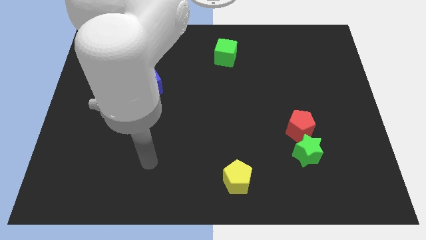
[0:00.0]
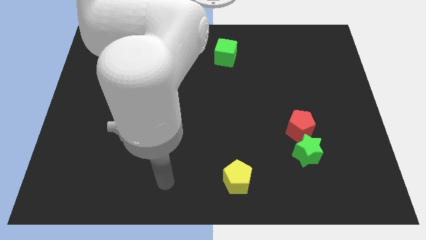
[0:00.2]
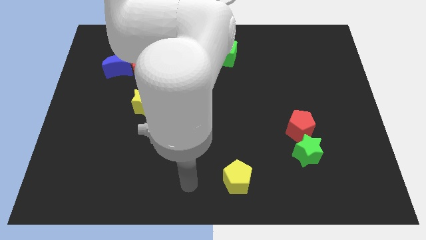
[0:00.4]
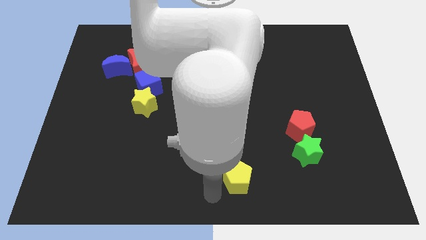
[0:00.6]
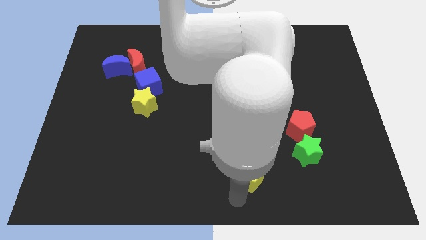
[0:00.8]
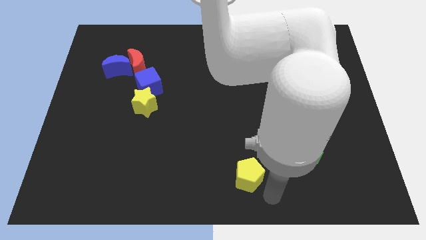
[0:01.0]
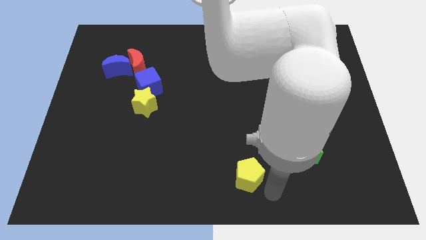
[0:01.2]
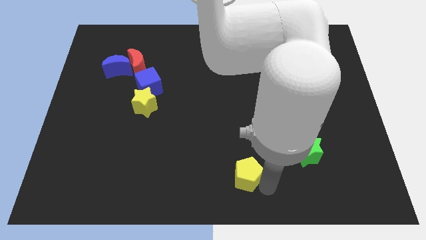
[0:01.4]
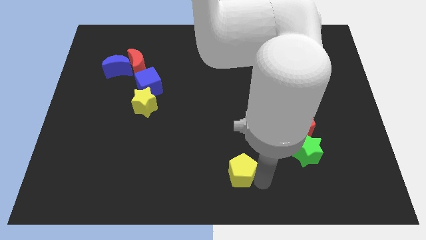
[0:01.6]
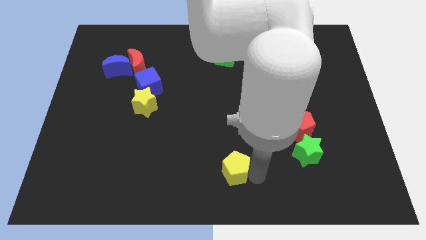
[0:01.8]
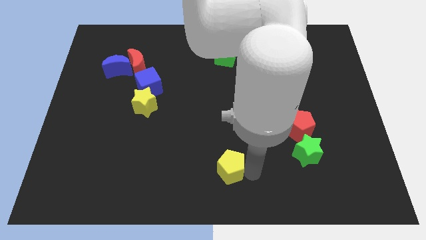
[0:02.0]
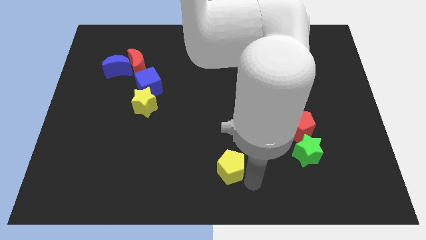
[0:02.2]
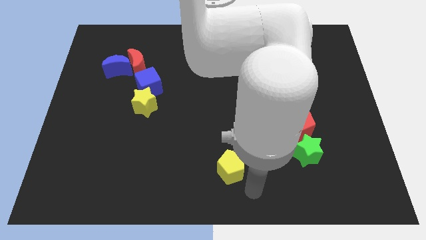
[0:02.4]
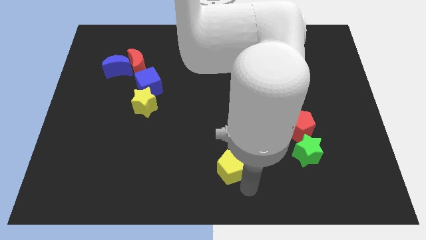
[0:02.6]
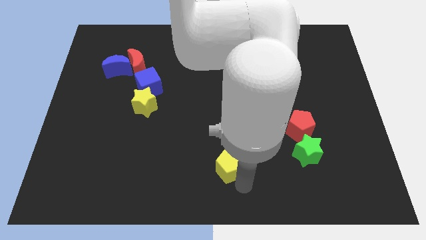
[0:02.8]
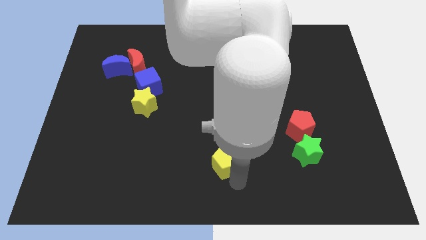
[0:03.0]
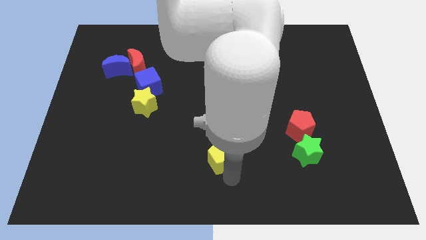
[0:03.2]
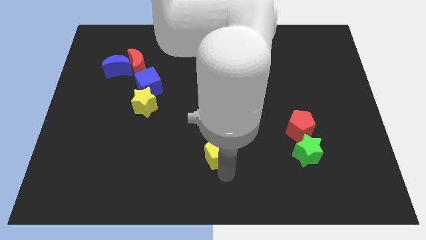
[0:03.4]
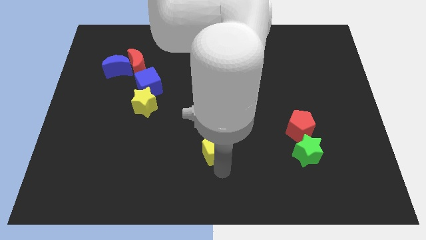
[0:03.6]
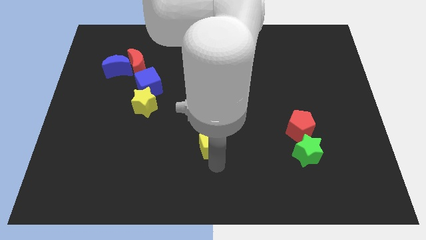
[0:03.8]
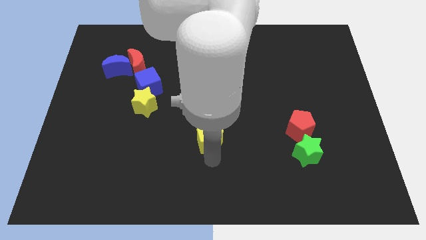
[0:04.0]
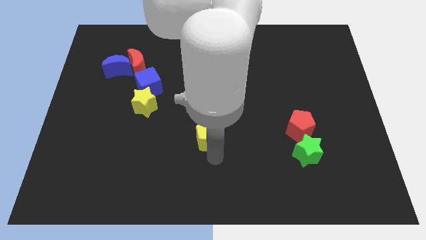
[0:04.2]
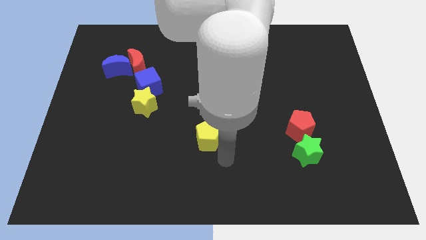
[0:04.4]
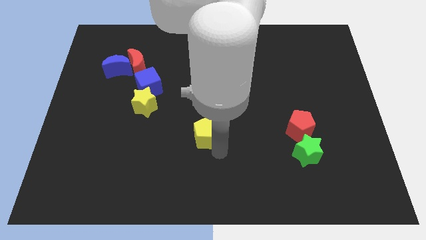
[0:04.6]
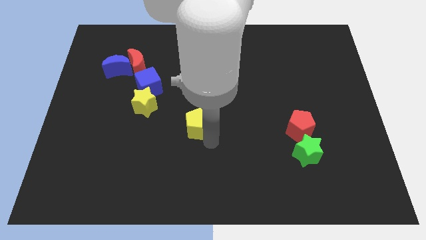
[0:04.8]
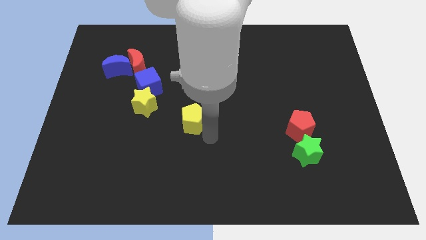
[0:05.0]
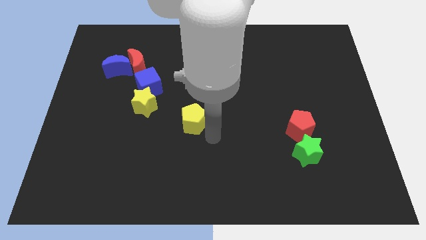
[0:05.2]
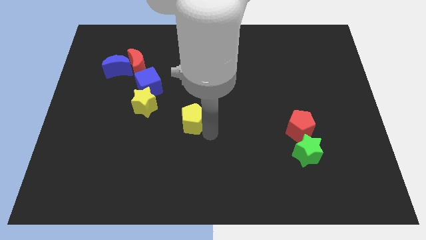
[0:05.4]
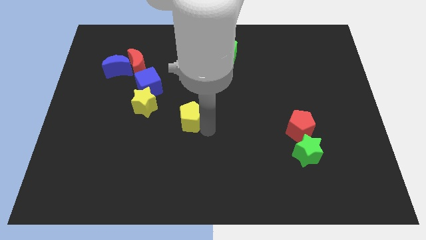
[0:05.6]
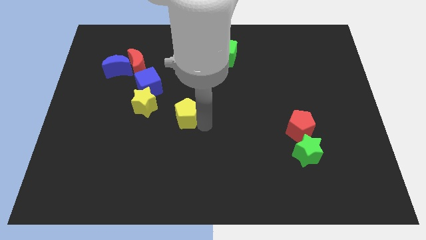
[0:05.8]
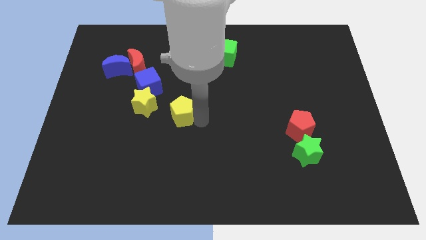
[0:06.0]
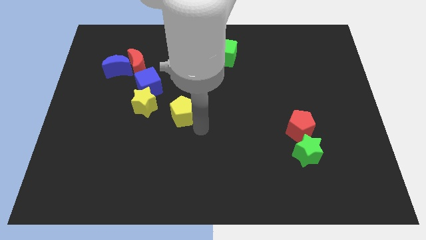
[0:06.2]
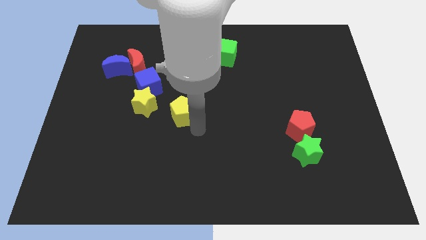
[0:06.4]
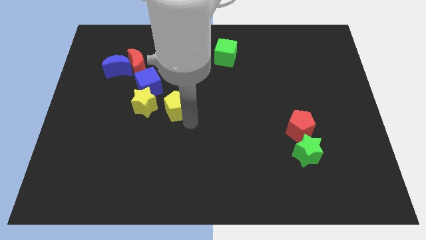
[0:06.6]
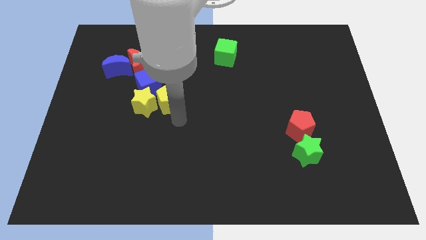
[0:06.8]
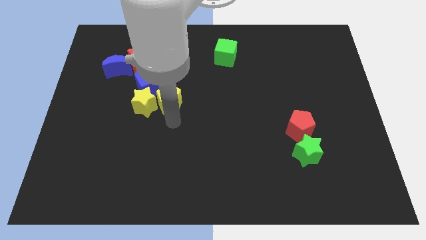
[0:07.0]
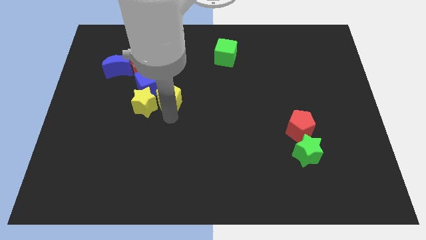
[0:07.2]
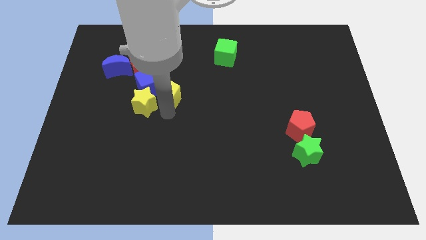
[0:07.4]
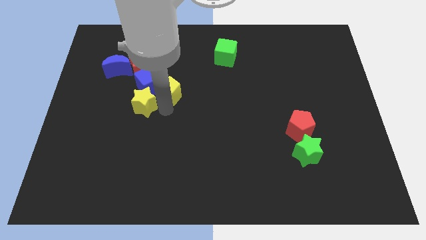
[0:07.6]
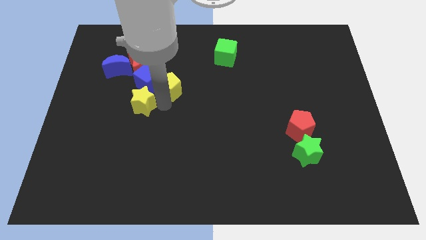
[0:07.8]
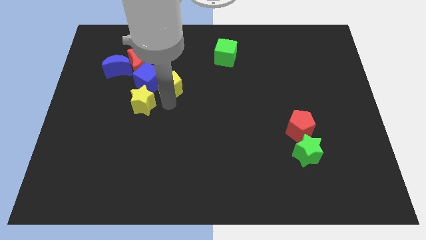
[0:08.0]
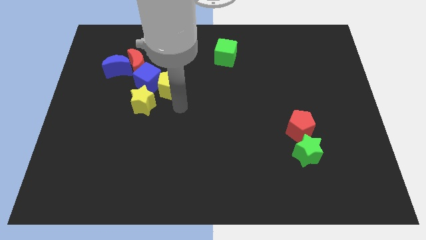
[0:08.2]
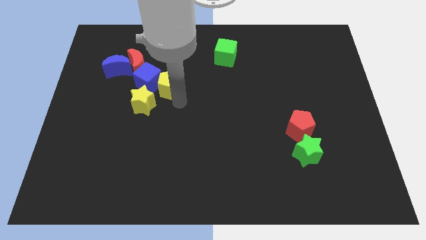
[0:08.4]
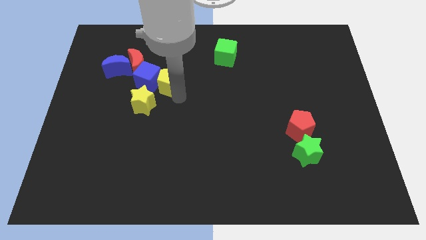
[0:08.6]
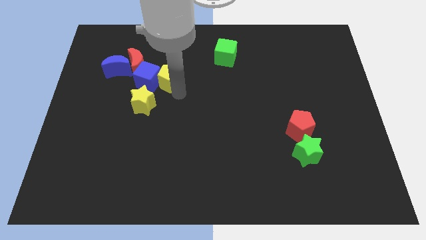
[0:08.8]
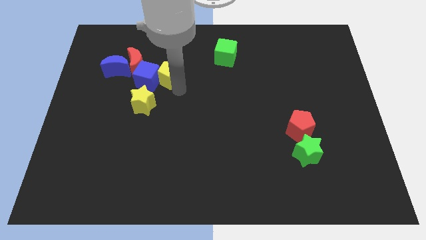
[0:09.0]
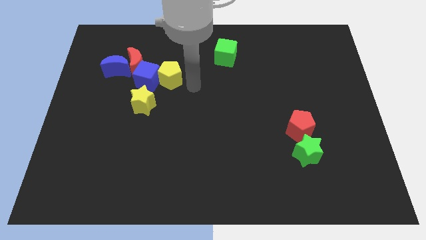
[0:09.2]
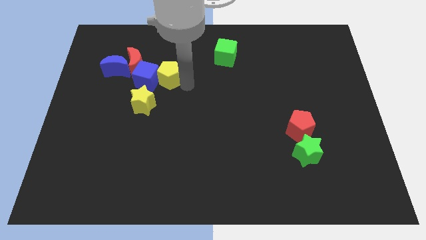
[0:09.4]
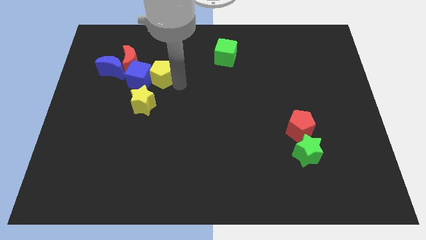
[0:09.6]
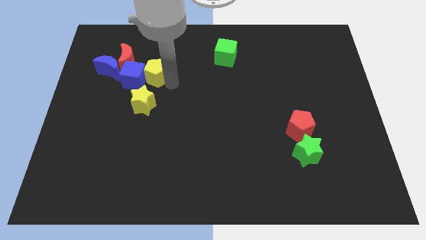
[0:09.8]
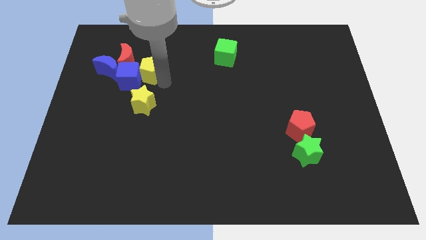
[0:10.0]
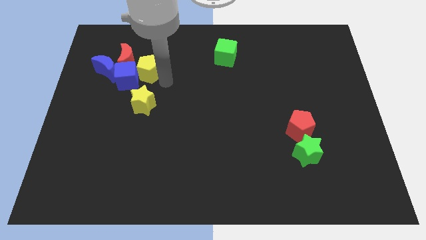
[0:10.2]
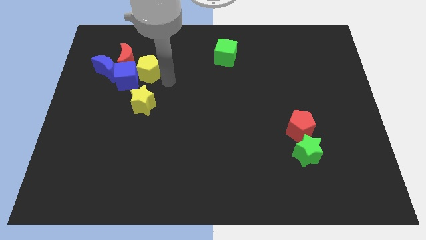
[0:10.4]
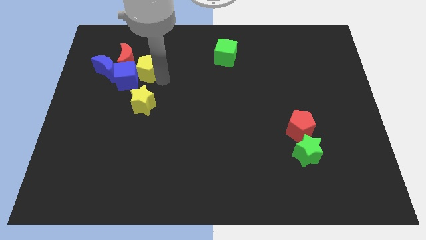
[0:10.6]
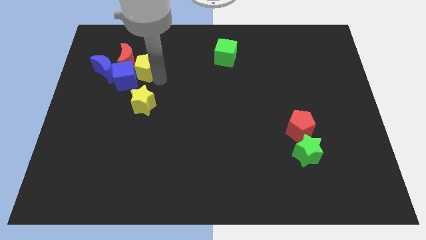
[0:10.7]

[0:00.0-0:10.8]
slide the yellow pentagon next to the red moon
